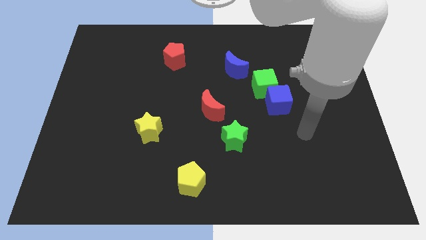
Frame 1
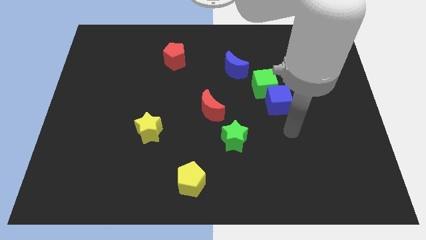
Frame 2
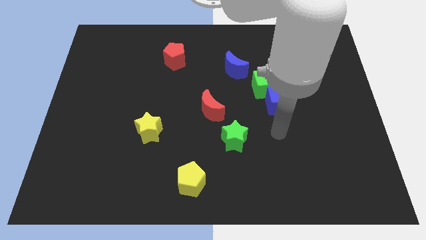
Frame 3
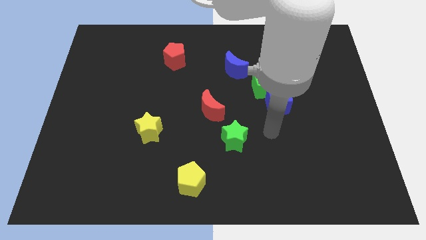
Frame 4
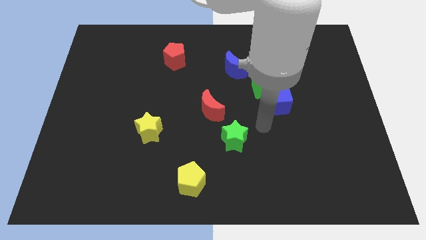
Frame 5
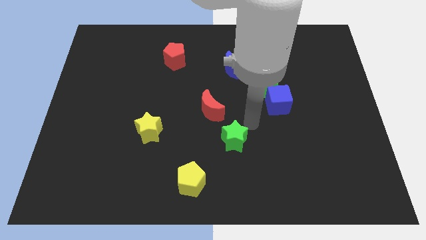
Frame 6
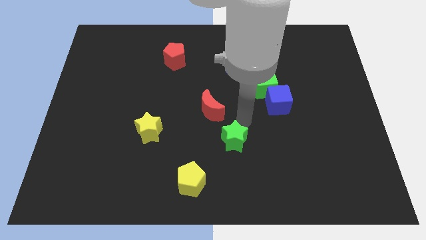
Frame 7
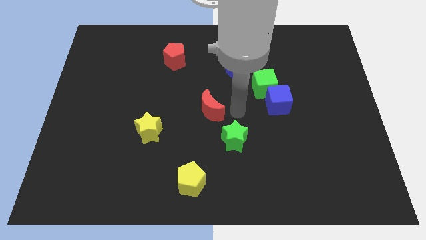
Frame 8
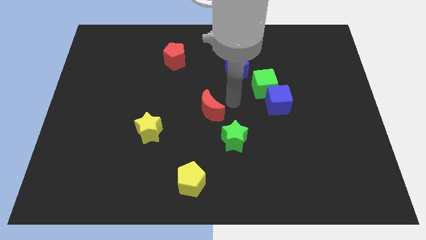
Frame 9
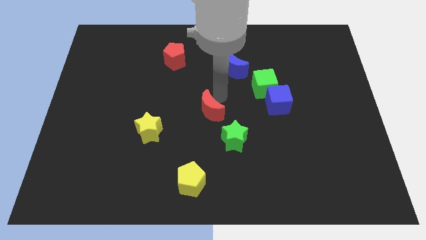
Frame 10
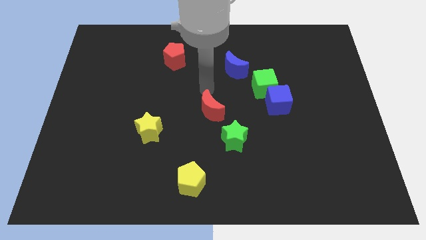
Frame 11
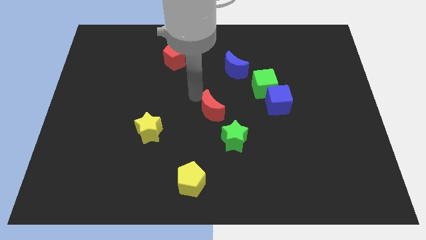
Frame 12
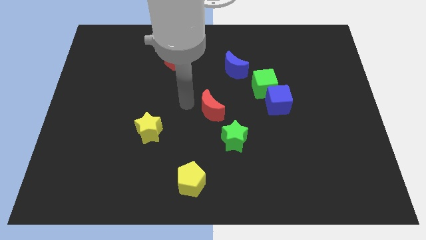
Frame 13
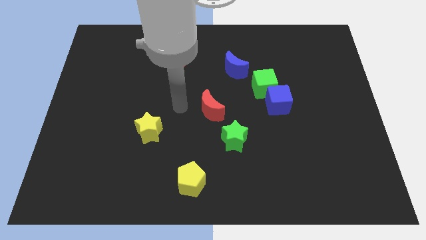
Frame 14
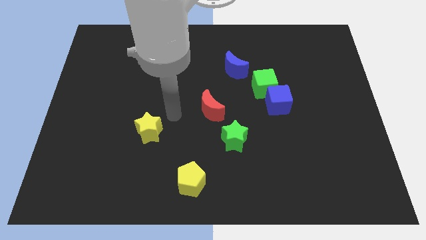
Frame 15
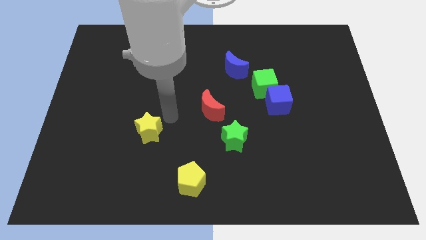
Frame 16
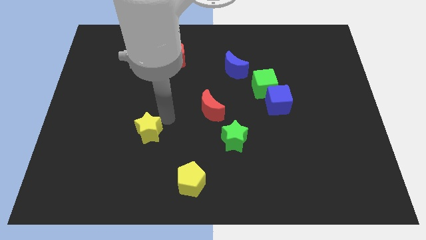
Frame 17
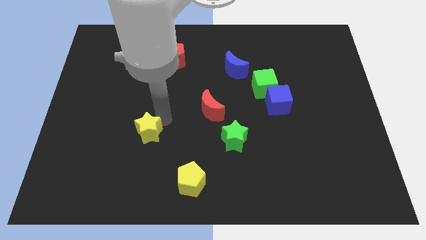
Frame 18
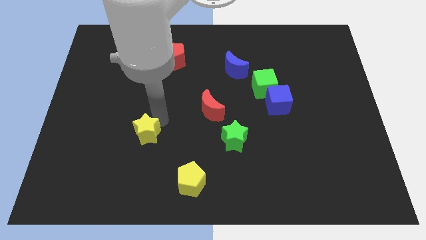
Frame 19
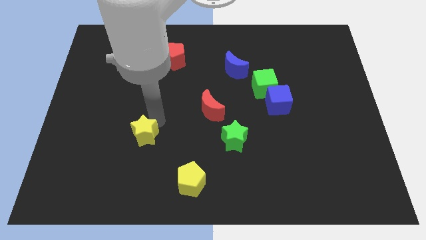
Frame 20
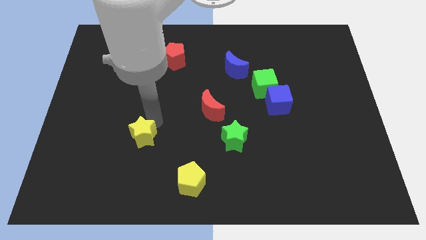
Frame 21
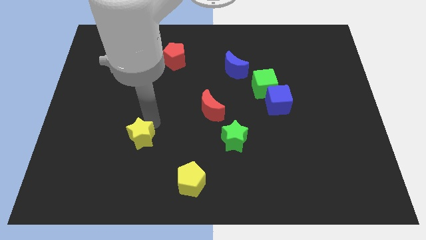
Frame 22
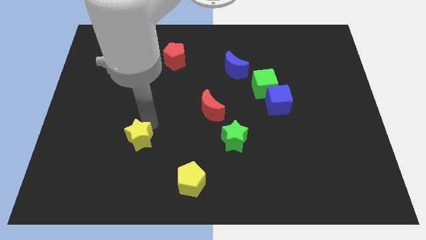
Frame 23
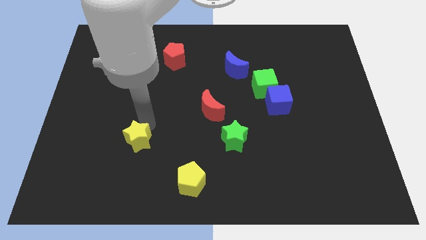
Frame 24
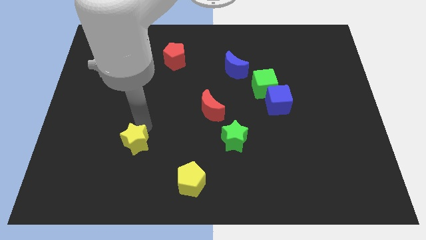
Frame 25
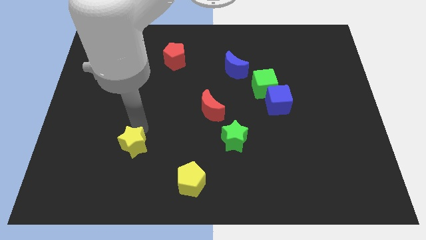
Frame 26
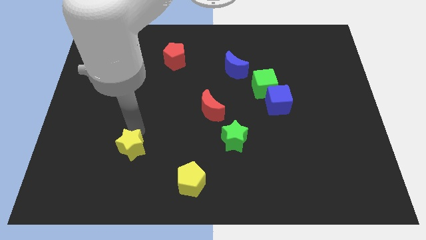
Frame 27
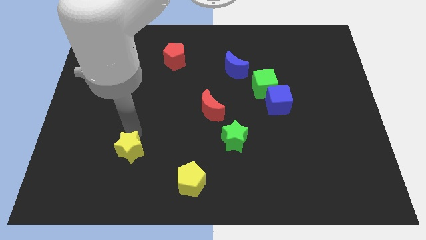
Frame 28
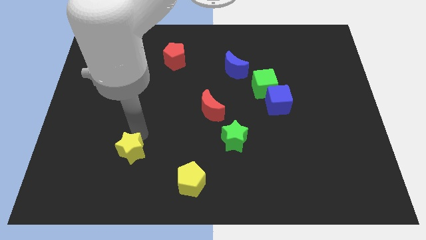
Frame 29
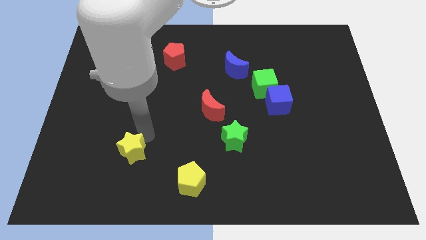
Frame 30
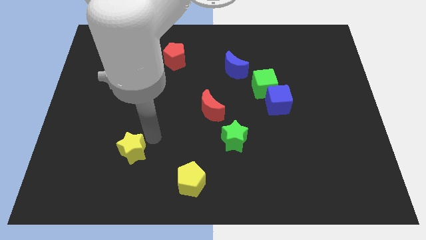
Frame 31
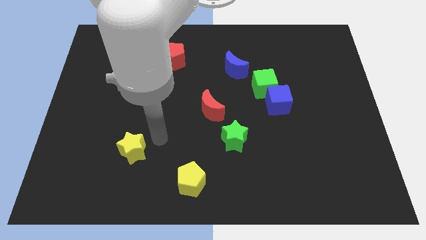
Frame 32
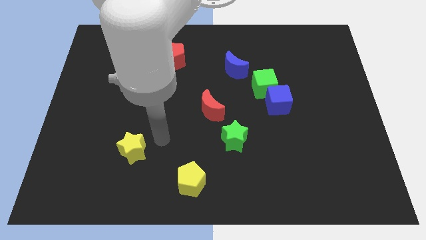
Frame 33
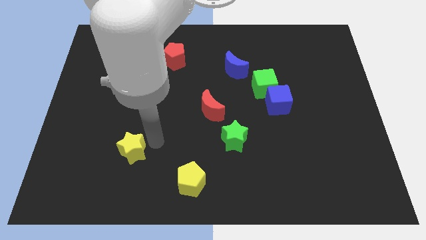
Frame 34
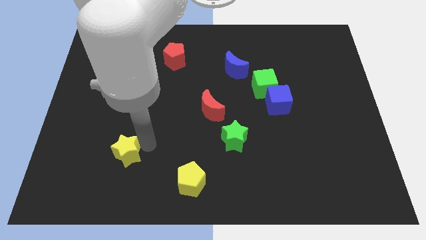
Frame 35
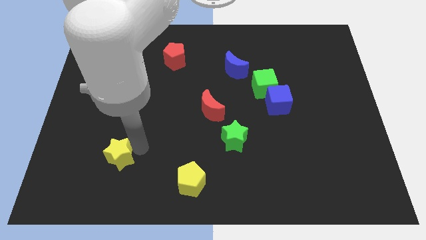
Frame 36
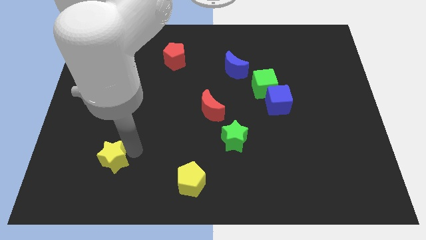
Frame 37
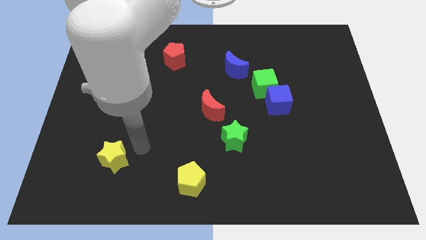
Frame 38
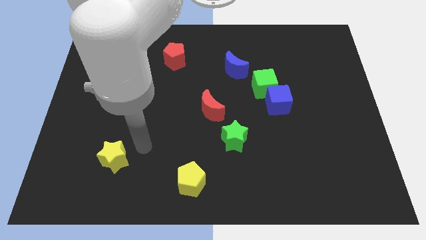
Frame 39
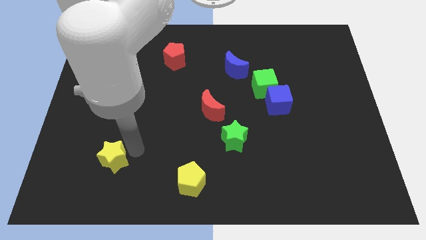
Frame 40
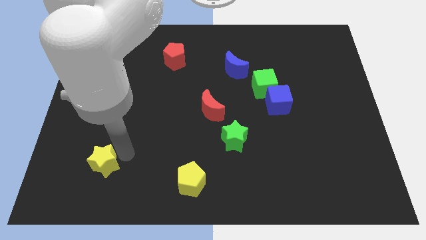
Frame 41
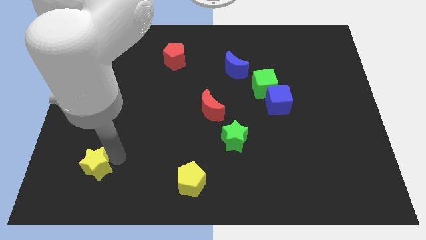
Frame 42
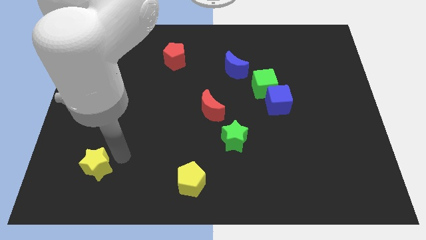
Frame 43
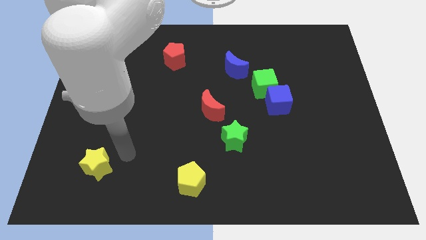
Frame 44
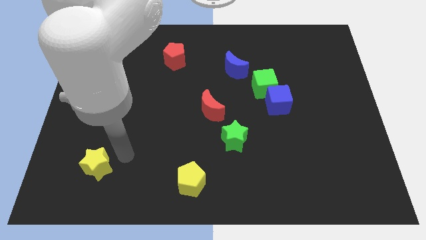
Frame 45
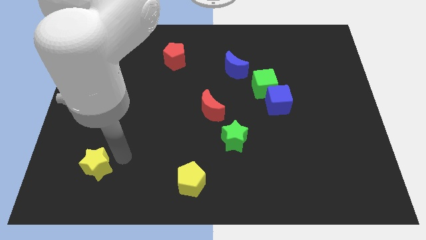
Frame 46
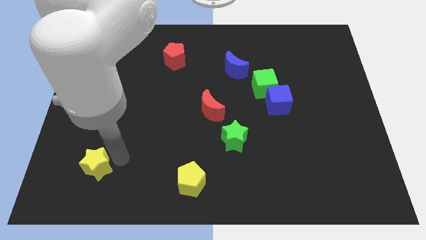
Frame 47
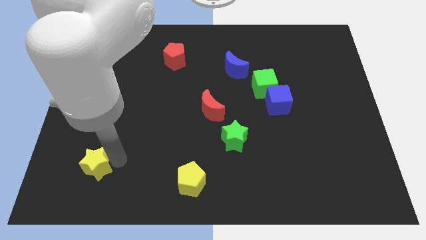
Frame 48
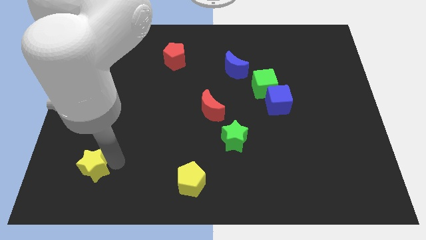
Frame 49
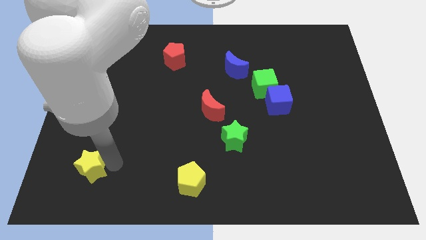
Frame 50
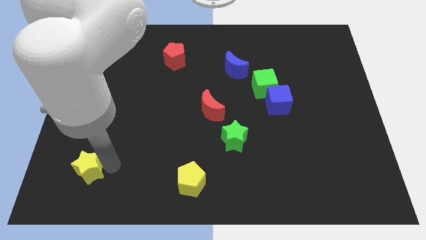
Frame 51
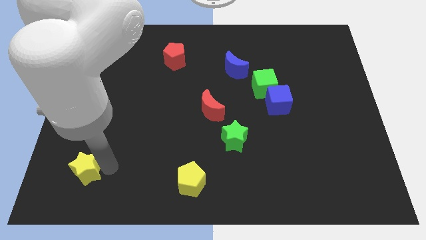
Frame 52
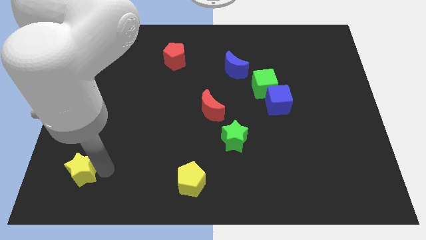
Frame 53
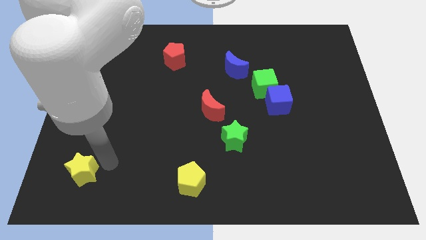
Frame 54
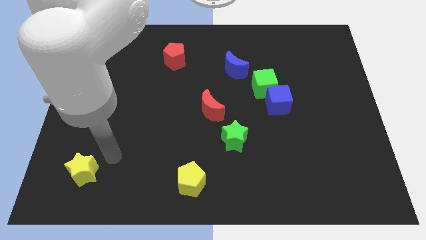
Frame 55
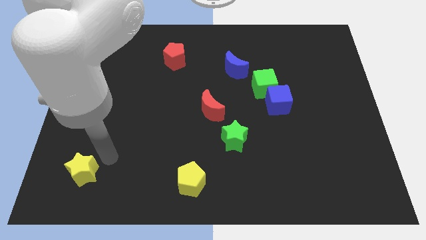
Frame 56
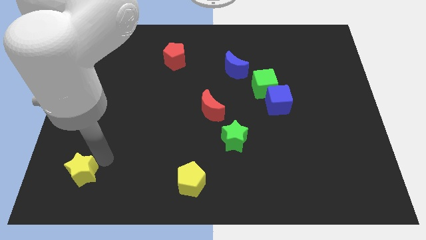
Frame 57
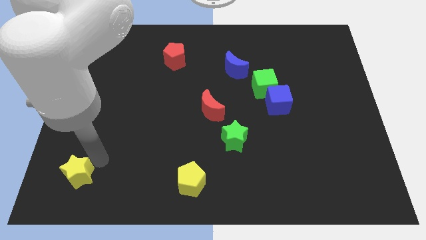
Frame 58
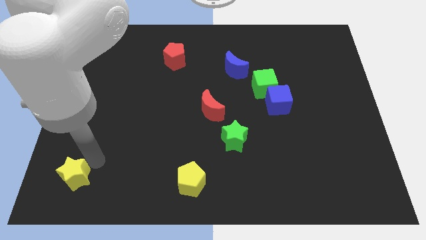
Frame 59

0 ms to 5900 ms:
move the yellow star to the bottom left
